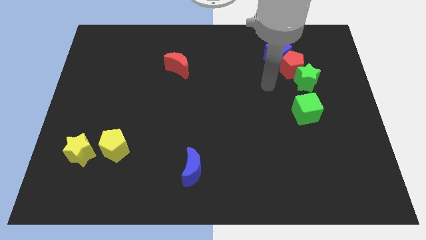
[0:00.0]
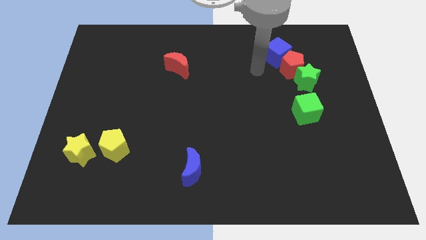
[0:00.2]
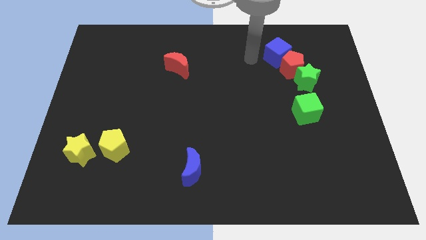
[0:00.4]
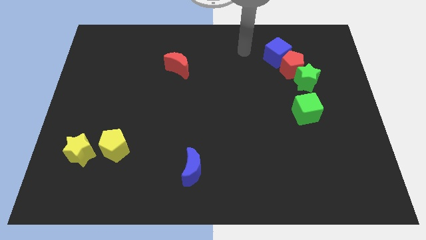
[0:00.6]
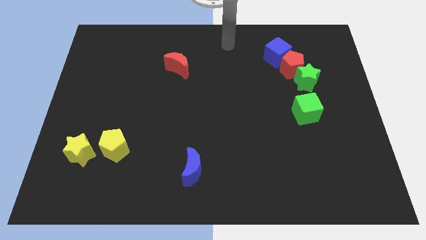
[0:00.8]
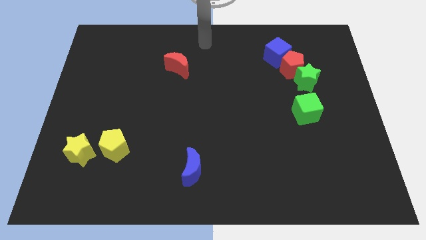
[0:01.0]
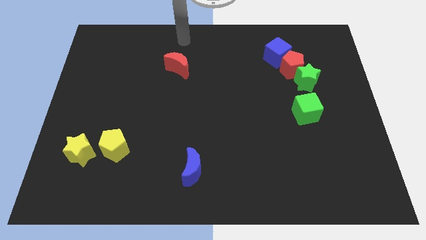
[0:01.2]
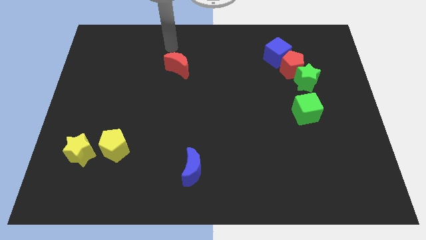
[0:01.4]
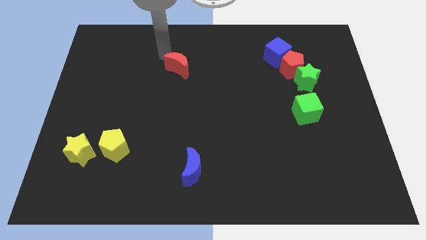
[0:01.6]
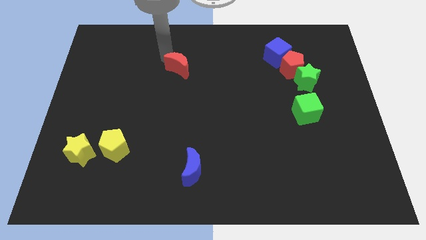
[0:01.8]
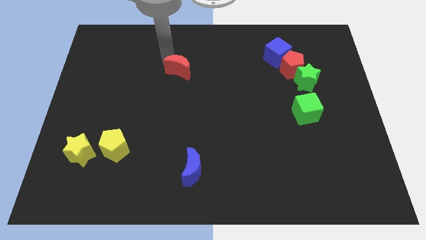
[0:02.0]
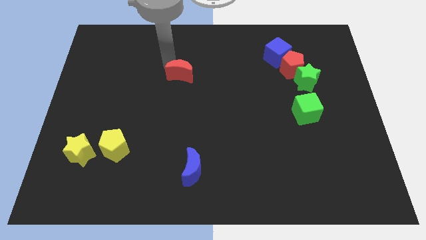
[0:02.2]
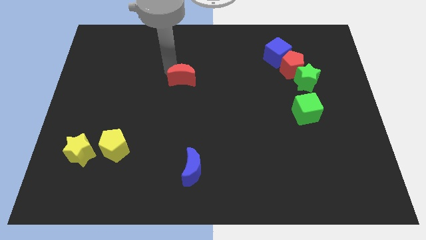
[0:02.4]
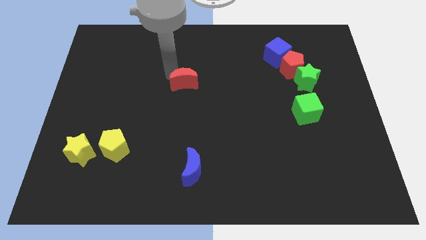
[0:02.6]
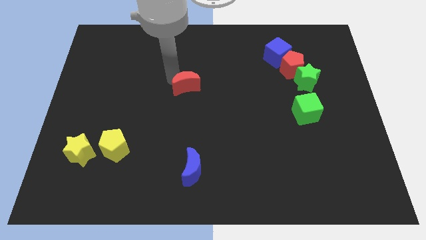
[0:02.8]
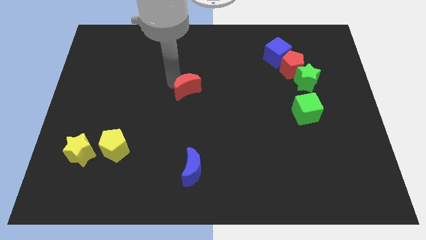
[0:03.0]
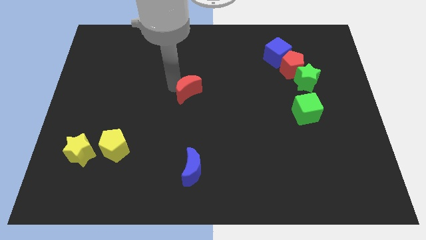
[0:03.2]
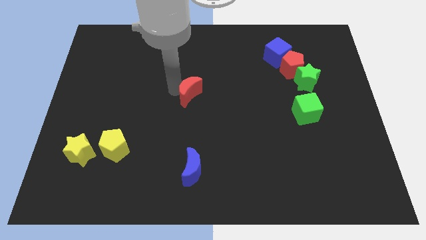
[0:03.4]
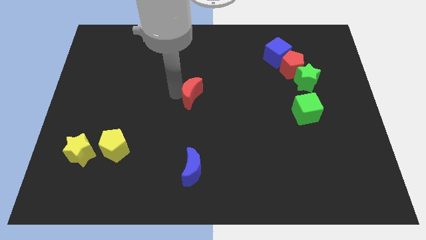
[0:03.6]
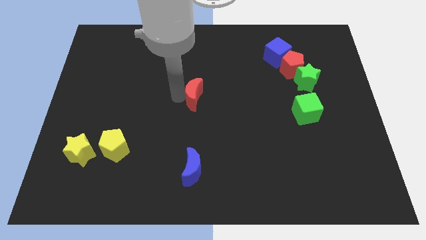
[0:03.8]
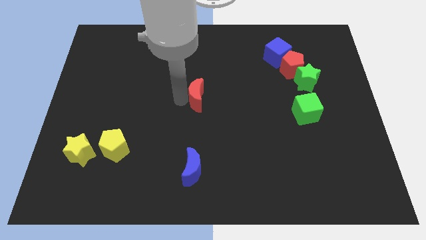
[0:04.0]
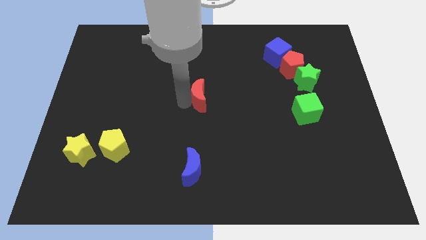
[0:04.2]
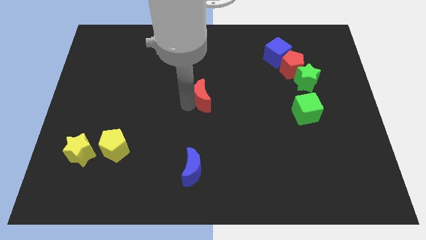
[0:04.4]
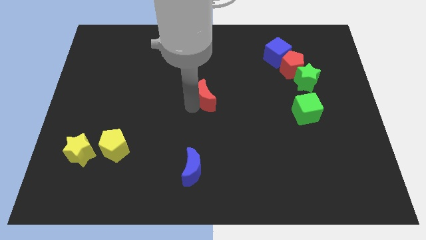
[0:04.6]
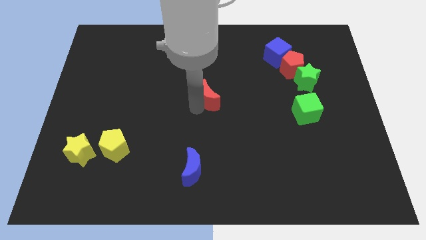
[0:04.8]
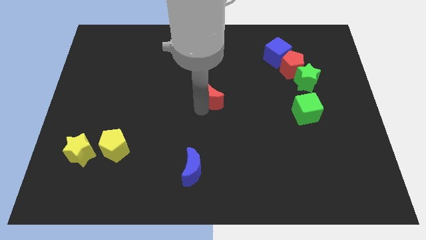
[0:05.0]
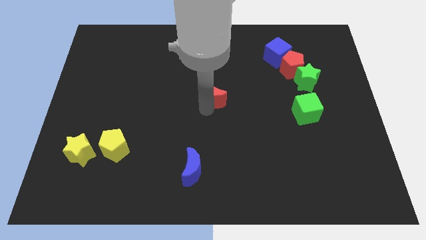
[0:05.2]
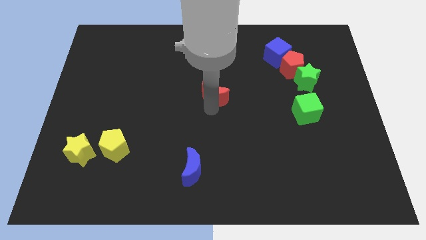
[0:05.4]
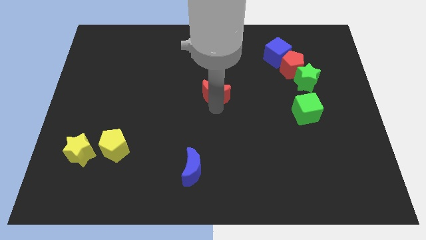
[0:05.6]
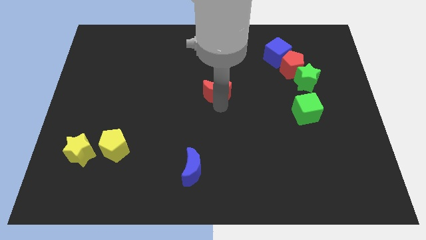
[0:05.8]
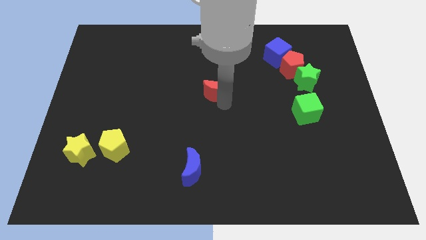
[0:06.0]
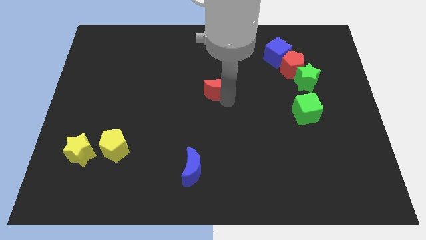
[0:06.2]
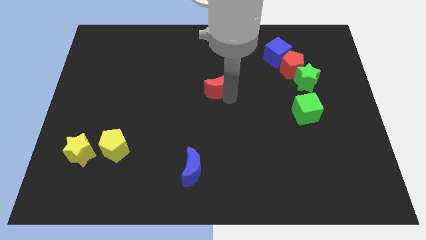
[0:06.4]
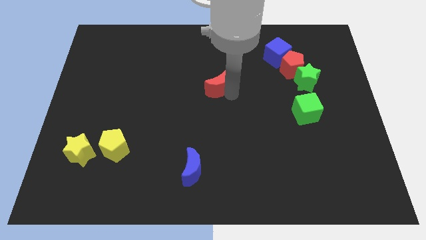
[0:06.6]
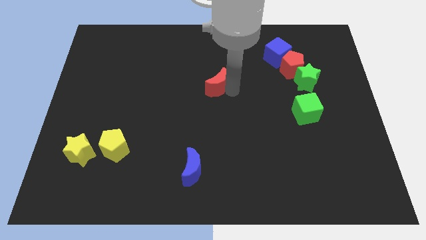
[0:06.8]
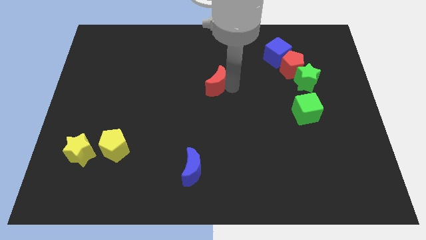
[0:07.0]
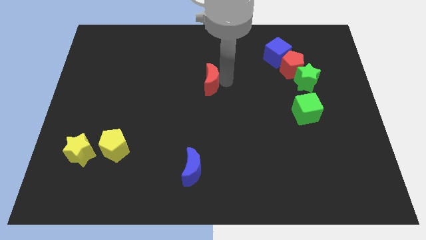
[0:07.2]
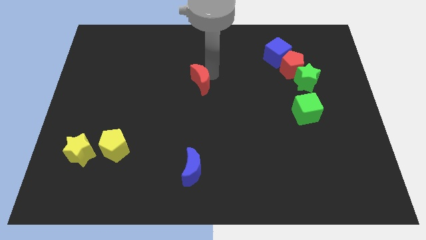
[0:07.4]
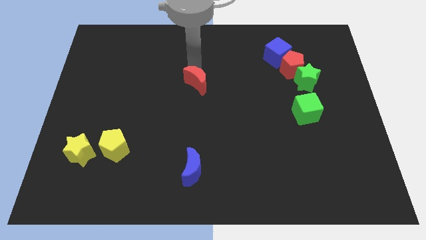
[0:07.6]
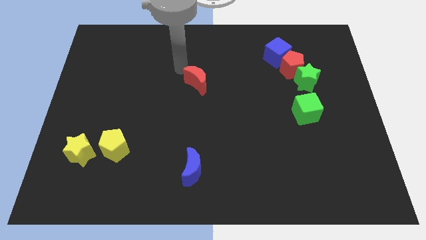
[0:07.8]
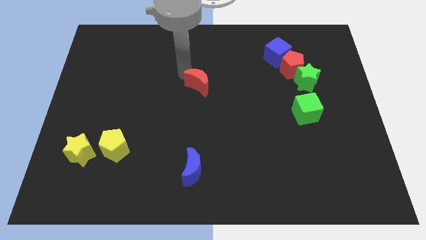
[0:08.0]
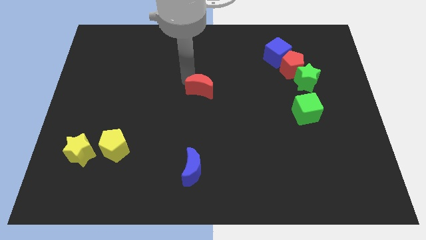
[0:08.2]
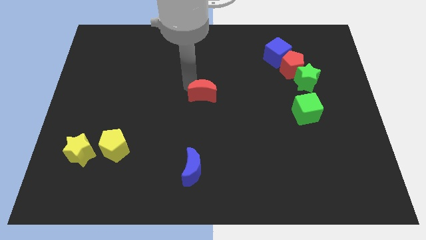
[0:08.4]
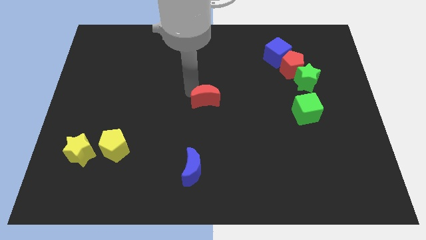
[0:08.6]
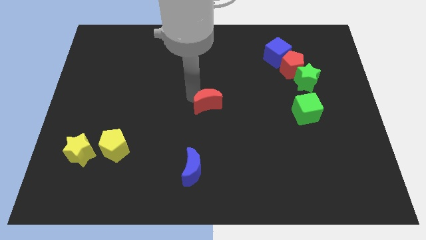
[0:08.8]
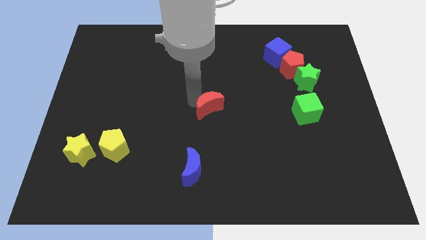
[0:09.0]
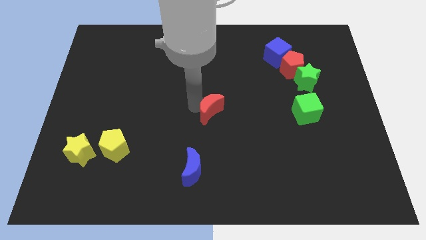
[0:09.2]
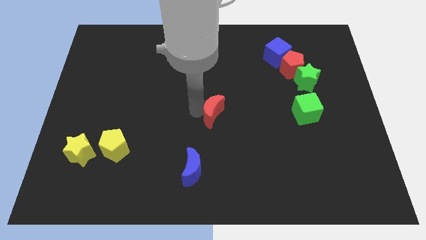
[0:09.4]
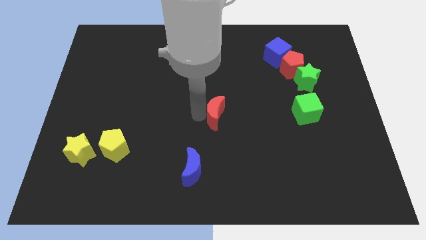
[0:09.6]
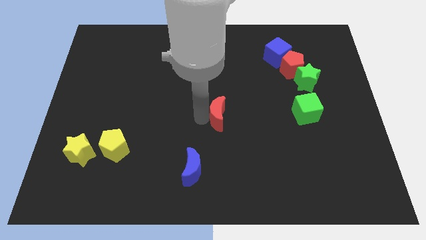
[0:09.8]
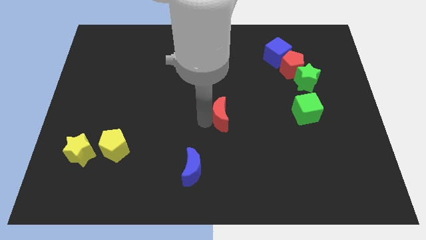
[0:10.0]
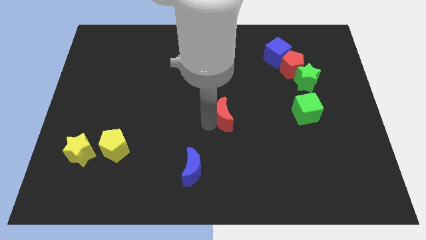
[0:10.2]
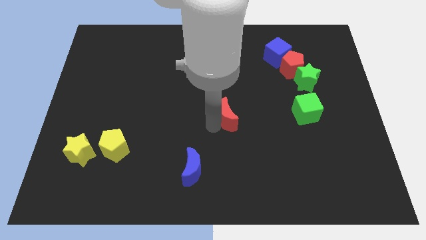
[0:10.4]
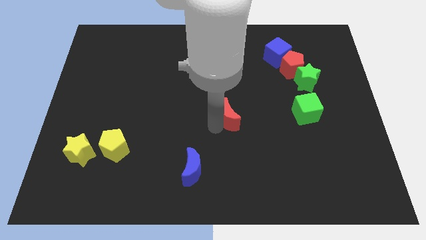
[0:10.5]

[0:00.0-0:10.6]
move the red moon diagonally downwards and right

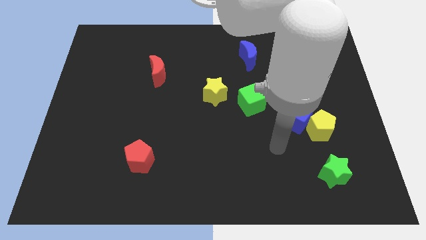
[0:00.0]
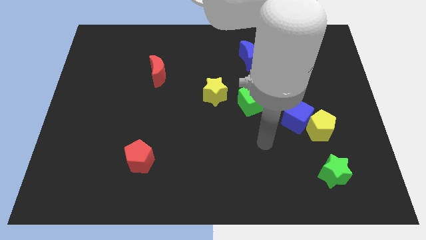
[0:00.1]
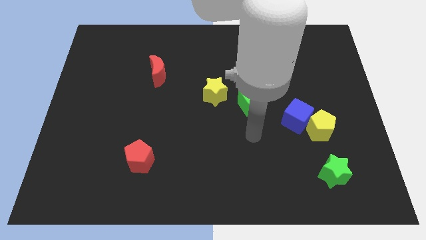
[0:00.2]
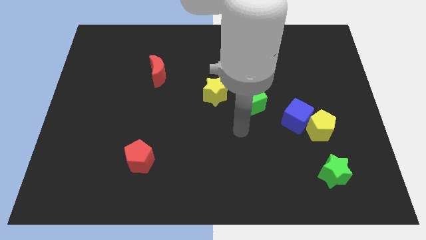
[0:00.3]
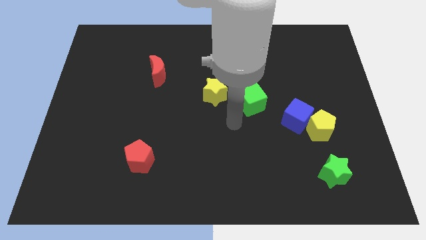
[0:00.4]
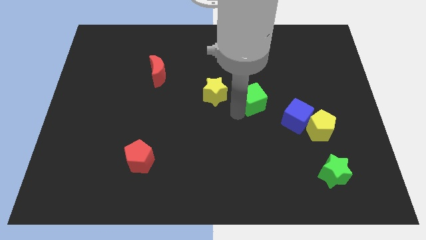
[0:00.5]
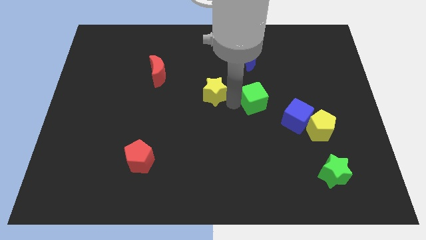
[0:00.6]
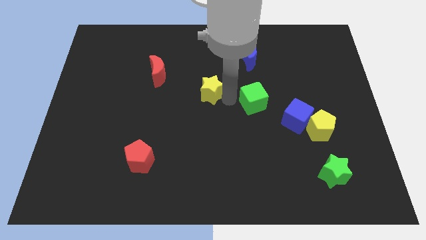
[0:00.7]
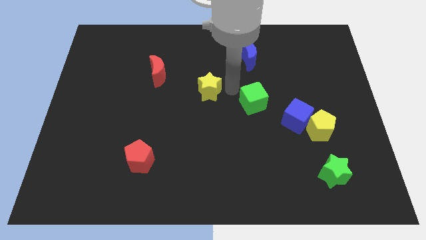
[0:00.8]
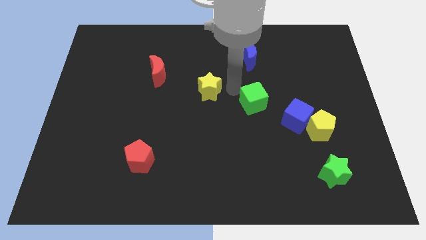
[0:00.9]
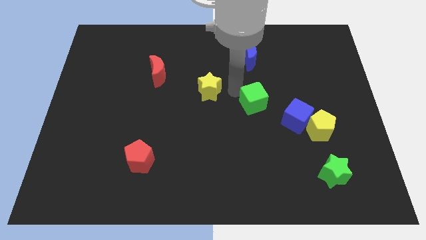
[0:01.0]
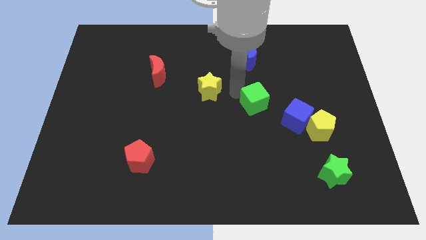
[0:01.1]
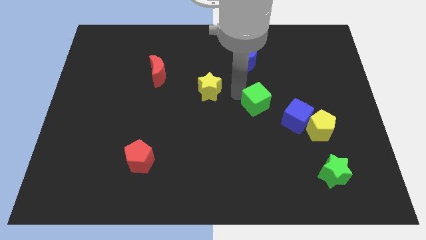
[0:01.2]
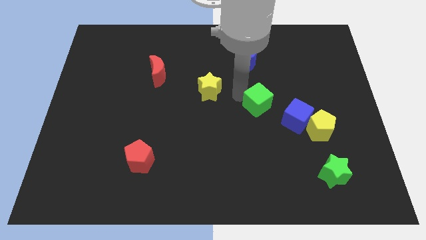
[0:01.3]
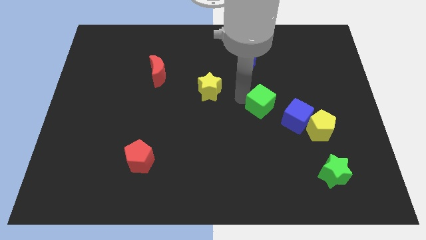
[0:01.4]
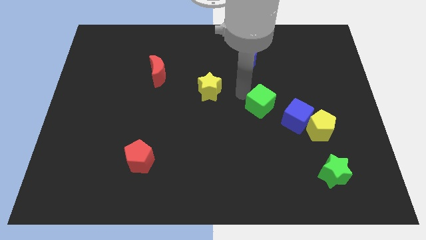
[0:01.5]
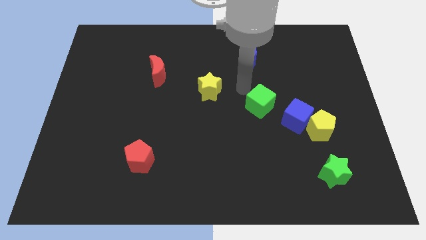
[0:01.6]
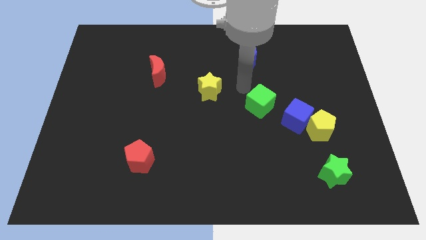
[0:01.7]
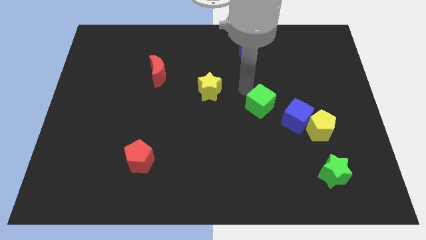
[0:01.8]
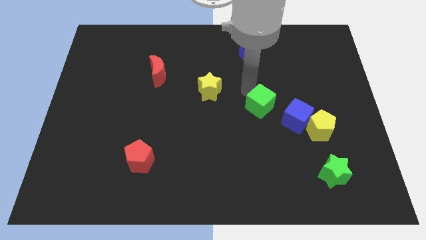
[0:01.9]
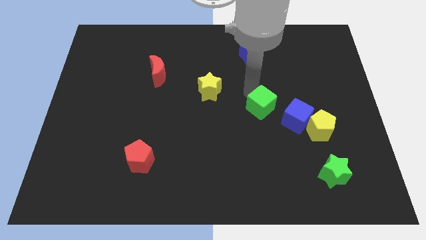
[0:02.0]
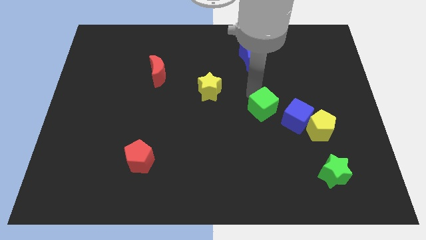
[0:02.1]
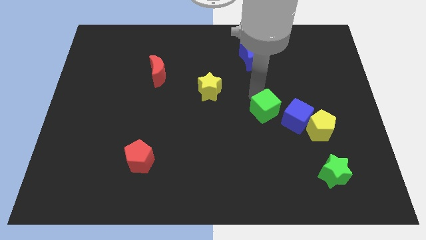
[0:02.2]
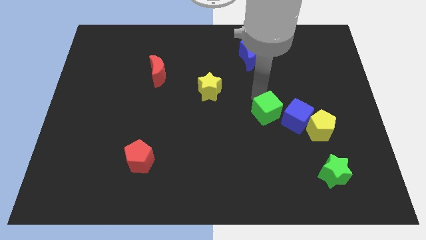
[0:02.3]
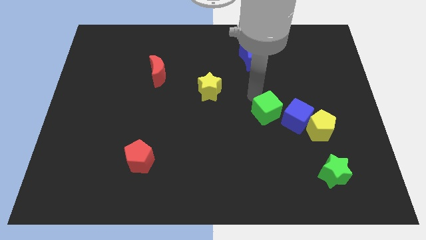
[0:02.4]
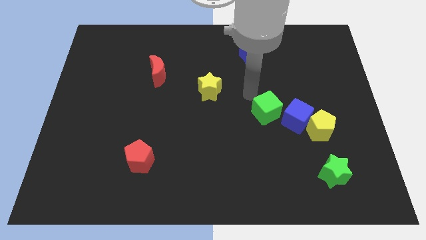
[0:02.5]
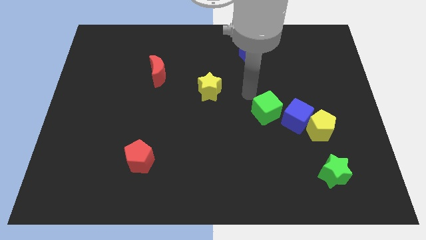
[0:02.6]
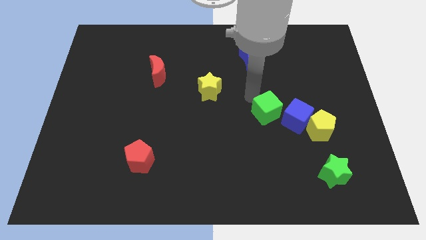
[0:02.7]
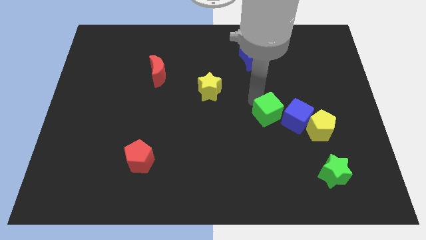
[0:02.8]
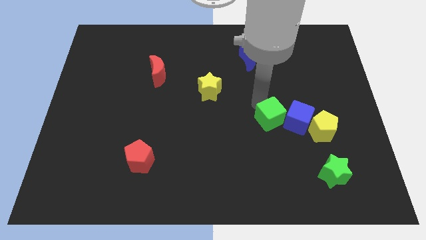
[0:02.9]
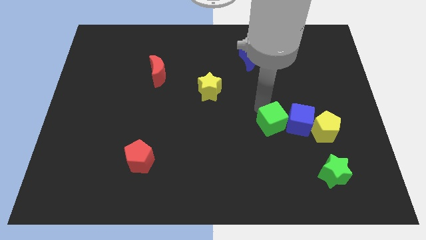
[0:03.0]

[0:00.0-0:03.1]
slide the green cube somewhat down and to the right
